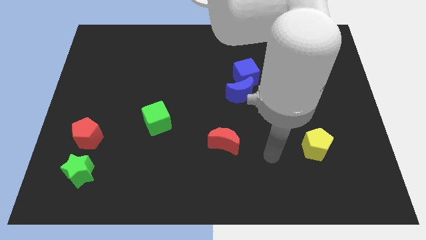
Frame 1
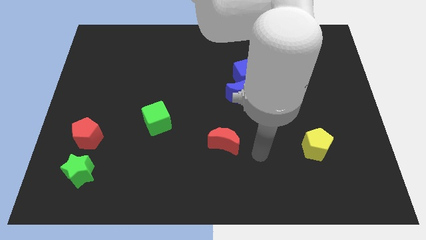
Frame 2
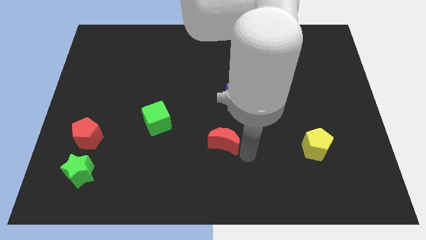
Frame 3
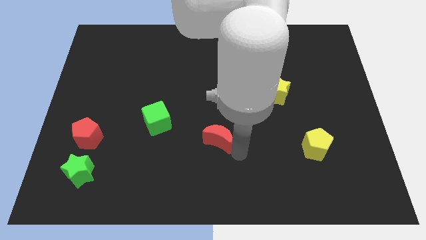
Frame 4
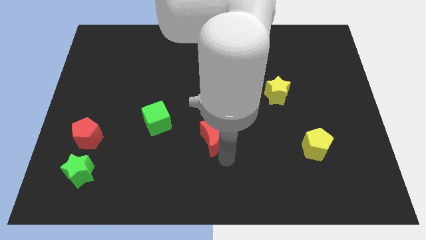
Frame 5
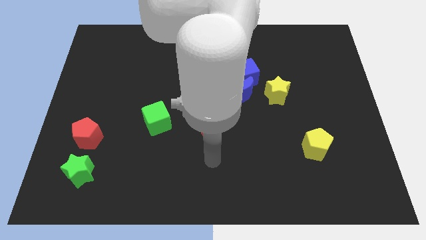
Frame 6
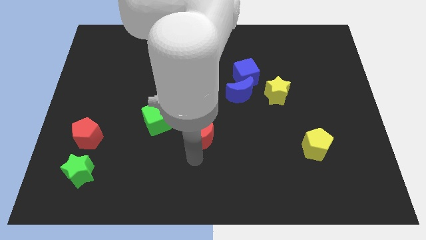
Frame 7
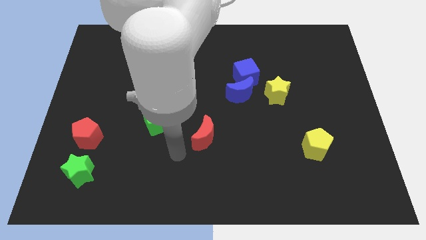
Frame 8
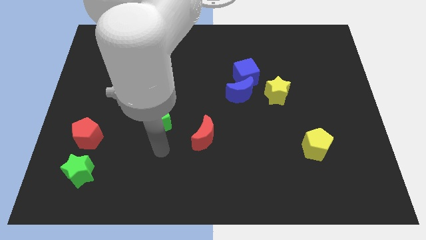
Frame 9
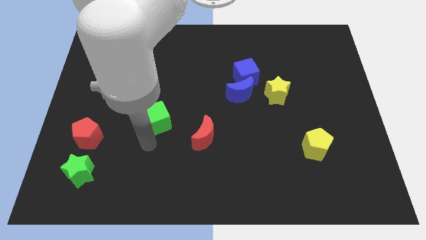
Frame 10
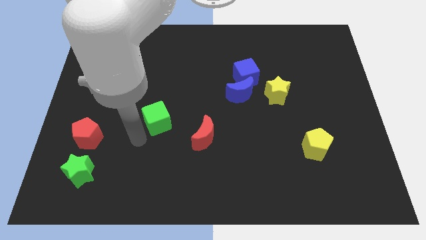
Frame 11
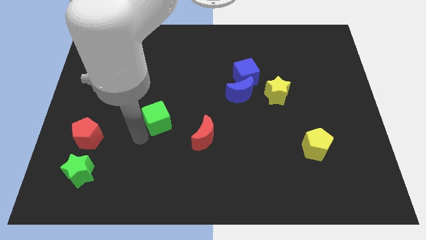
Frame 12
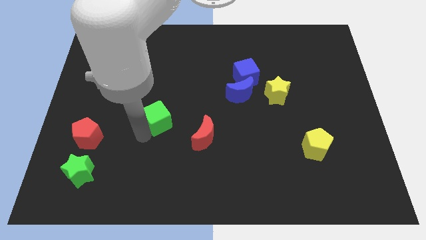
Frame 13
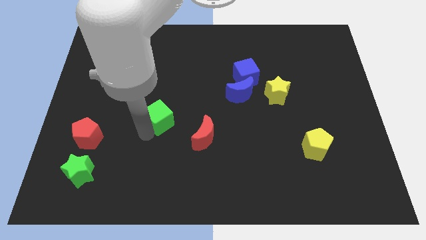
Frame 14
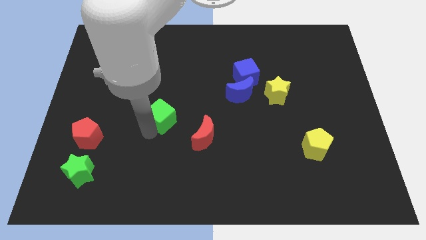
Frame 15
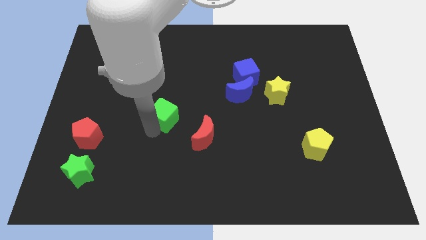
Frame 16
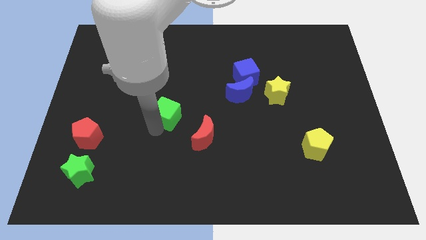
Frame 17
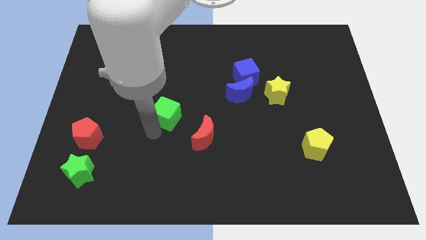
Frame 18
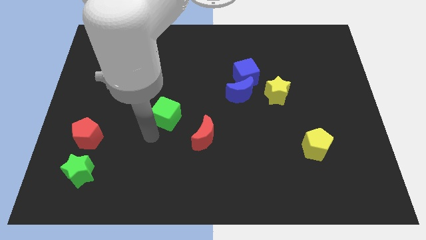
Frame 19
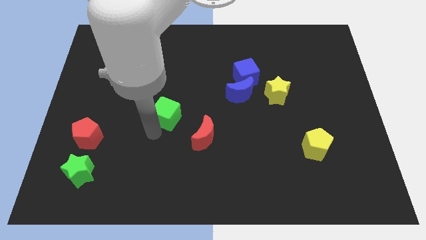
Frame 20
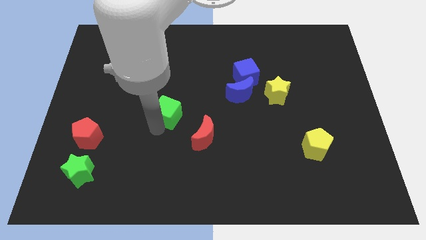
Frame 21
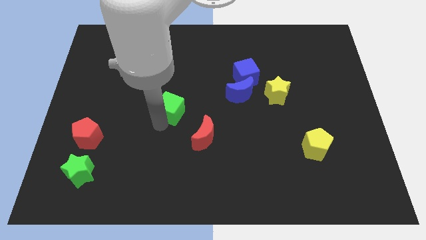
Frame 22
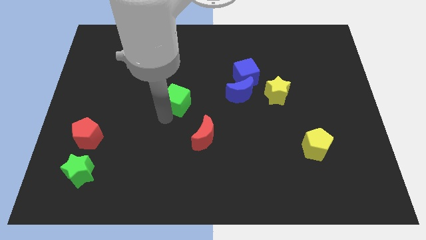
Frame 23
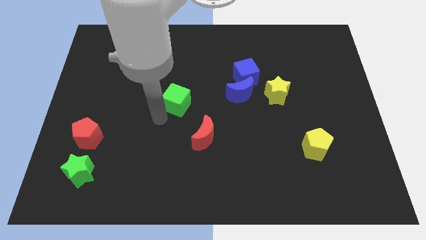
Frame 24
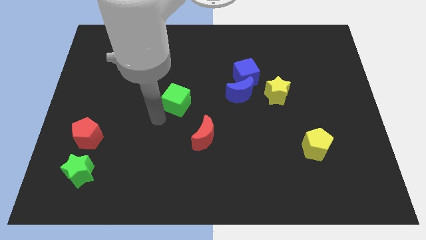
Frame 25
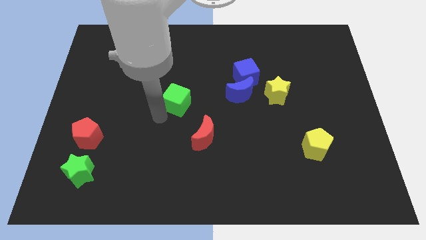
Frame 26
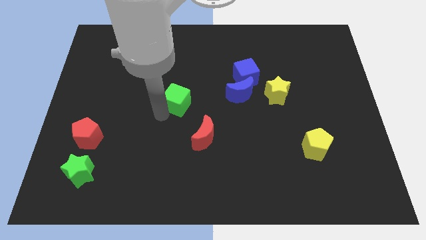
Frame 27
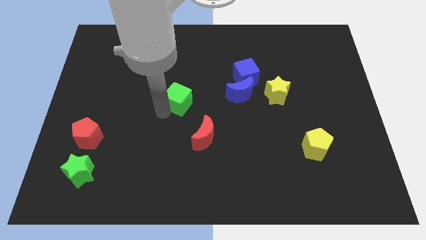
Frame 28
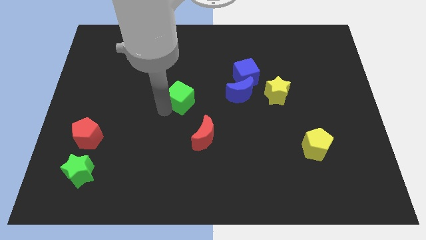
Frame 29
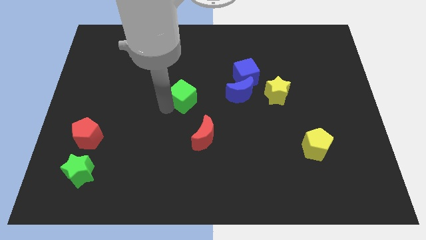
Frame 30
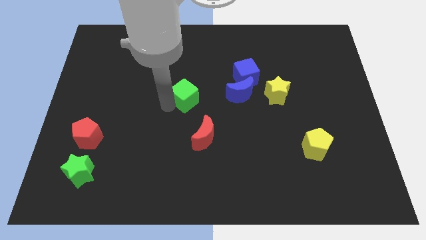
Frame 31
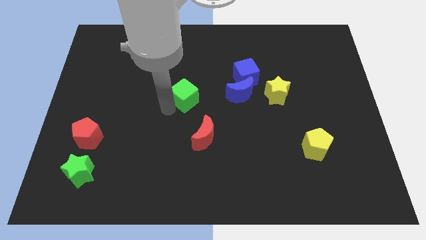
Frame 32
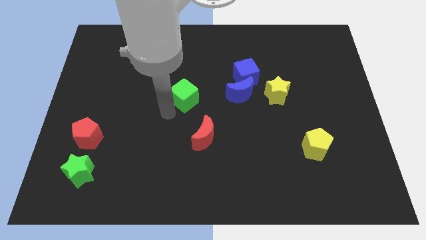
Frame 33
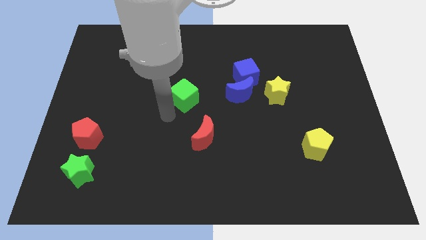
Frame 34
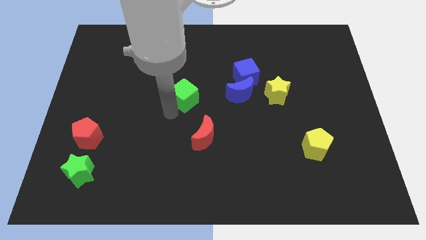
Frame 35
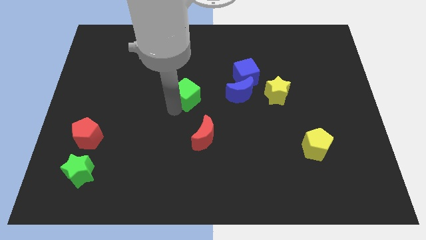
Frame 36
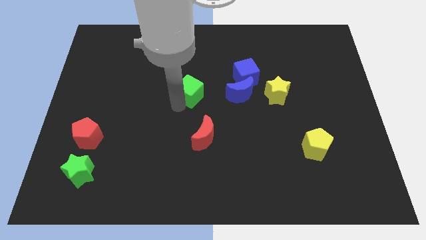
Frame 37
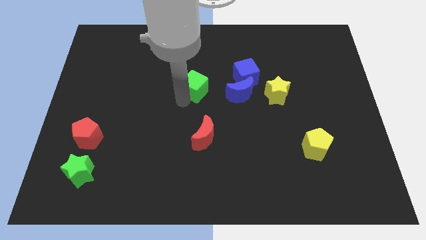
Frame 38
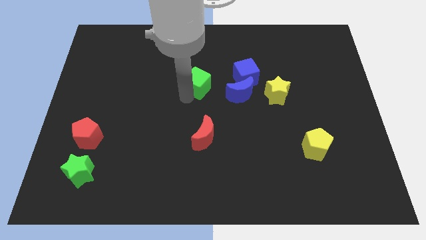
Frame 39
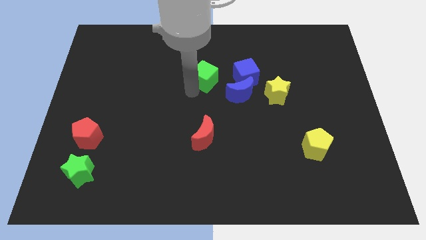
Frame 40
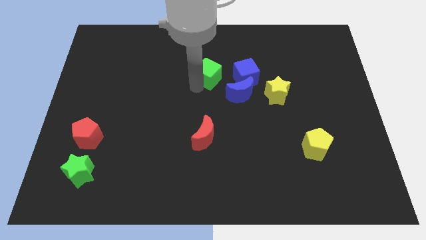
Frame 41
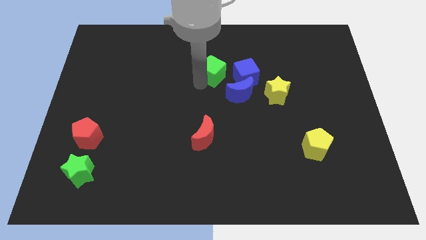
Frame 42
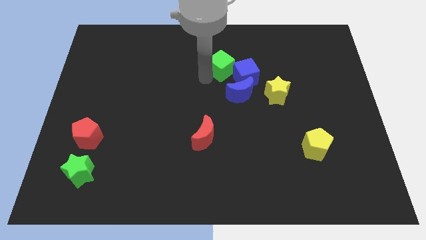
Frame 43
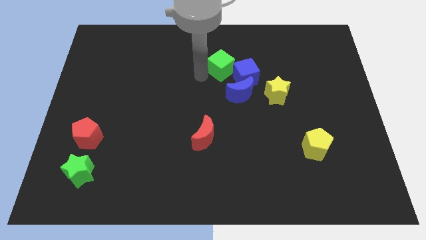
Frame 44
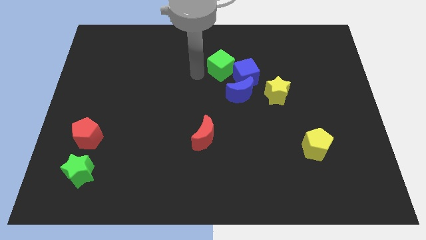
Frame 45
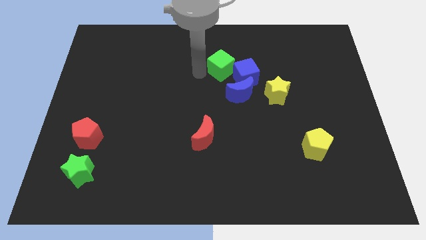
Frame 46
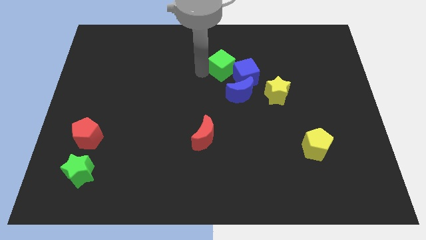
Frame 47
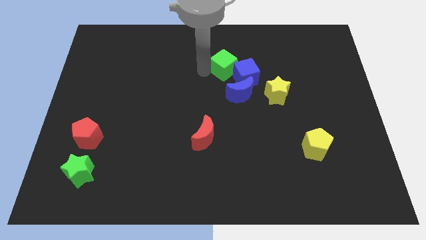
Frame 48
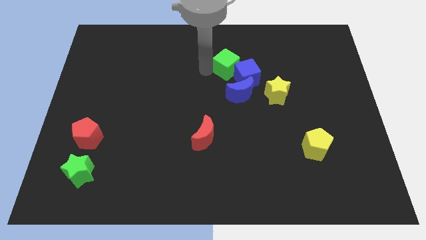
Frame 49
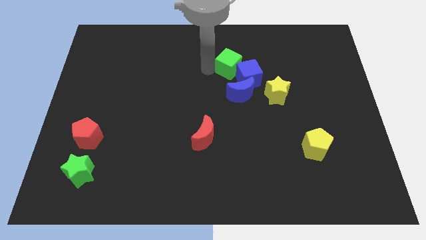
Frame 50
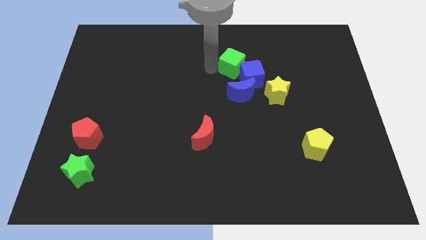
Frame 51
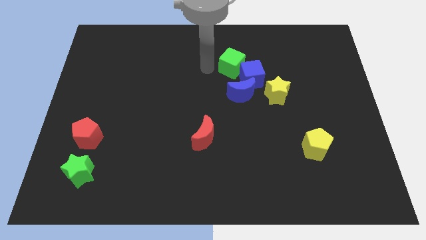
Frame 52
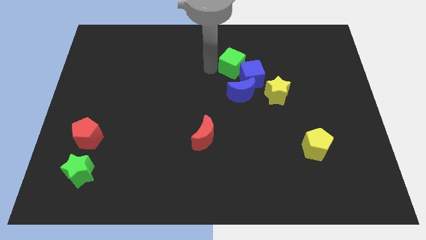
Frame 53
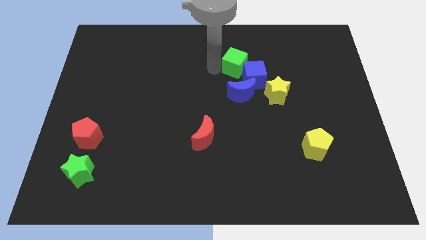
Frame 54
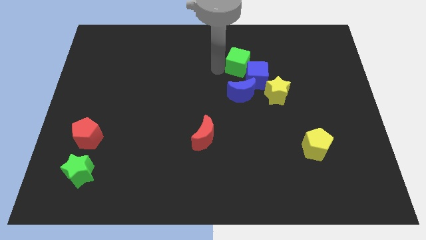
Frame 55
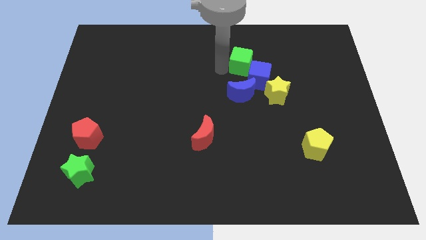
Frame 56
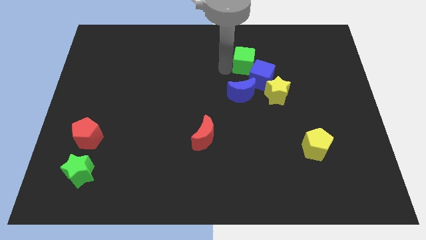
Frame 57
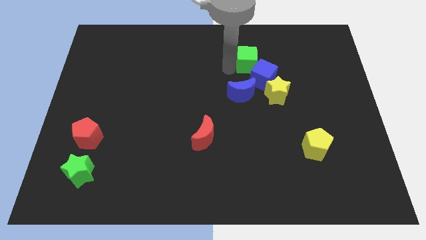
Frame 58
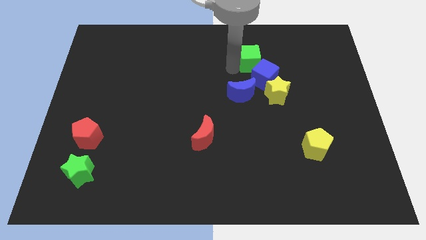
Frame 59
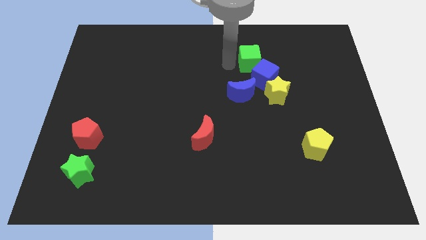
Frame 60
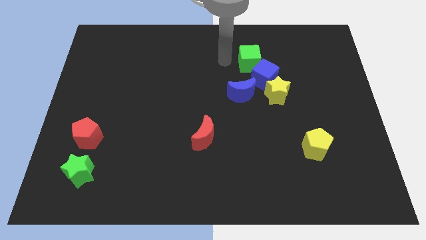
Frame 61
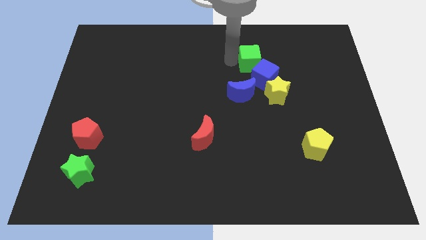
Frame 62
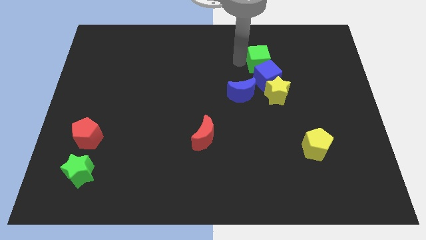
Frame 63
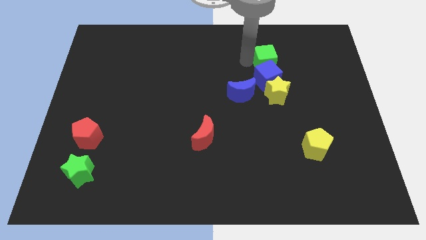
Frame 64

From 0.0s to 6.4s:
slide the green cube to the top right of the blue cube

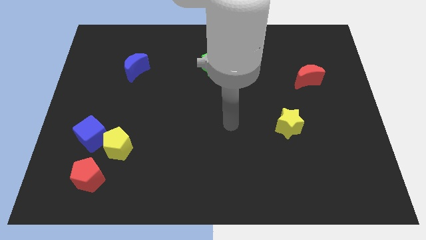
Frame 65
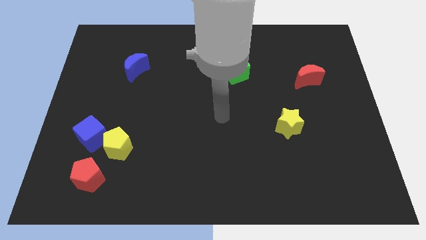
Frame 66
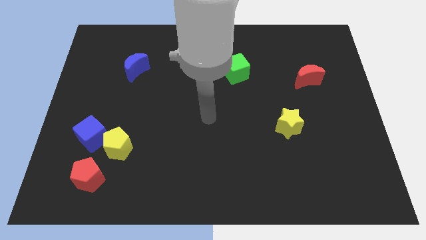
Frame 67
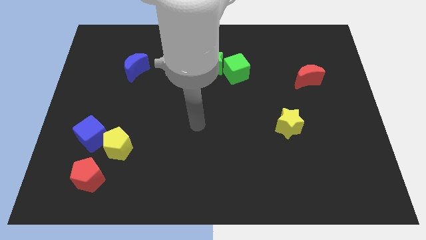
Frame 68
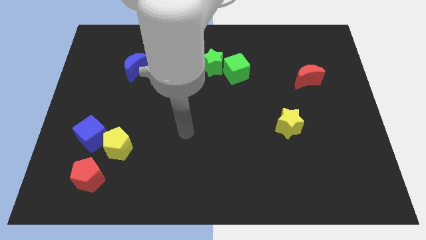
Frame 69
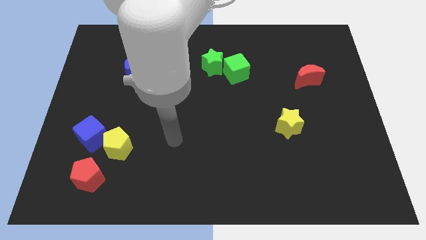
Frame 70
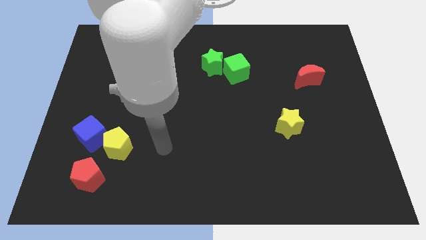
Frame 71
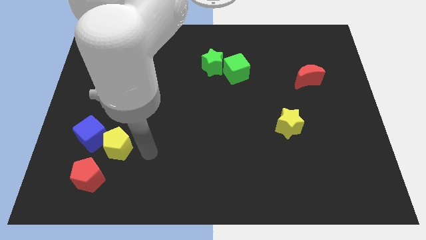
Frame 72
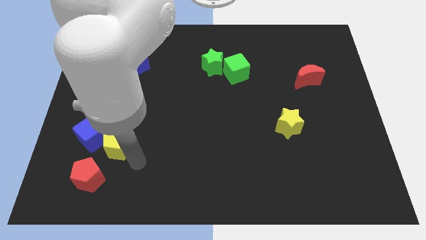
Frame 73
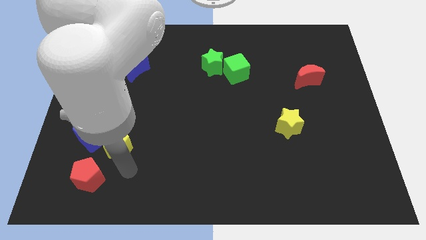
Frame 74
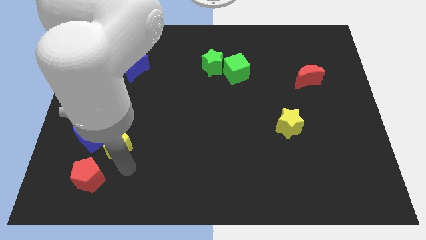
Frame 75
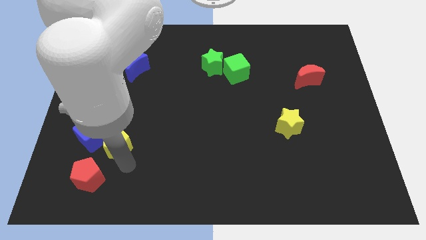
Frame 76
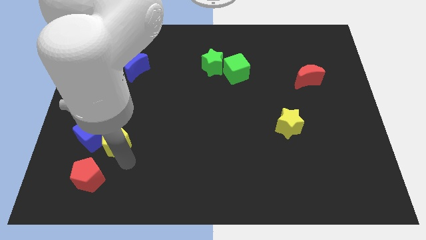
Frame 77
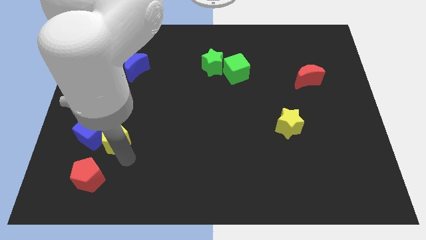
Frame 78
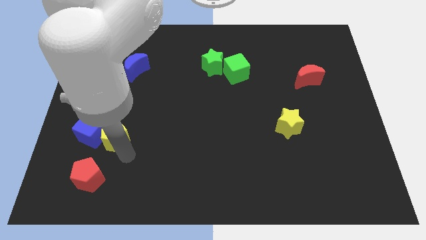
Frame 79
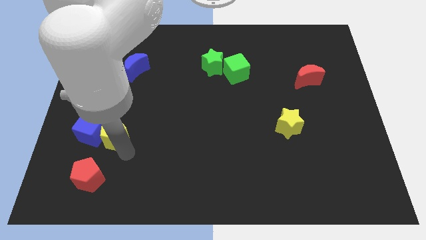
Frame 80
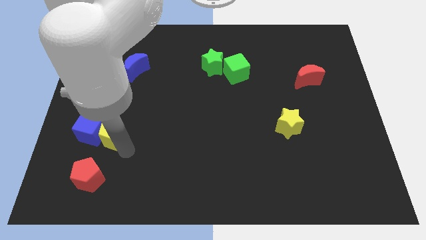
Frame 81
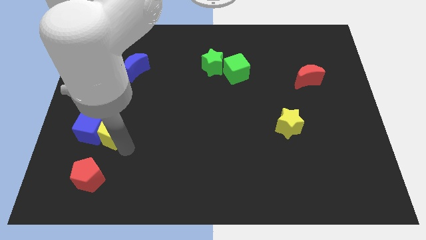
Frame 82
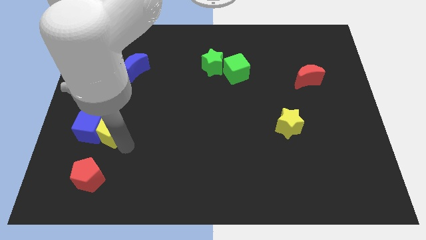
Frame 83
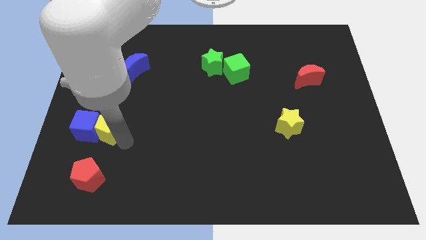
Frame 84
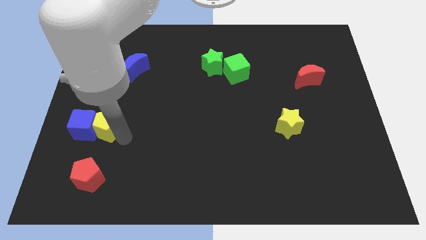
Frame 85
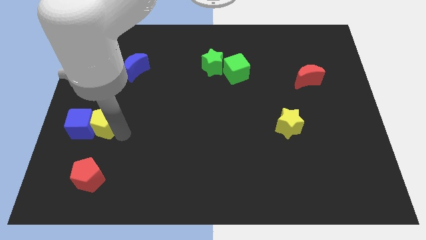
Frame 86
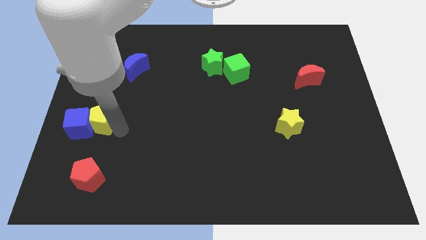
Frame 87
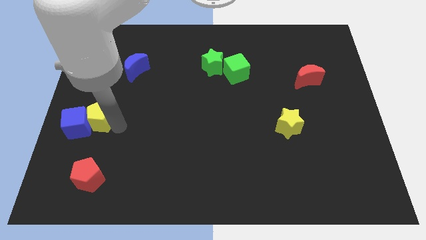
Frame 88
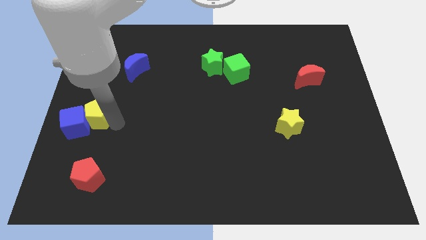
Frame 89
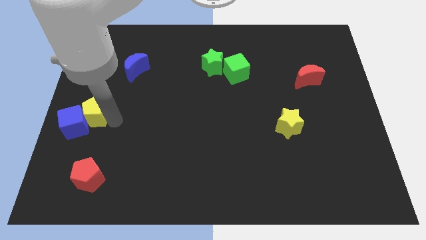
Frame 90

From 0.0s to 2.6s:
slide the yellow pentagon to the top of the blue cube
